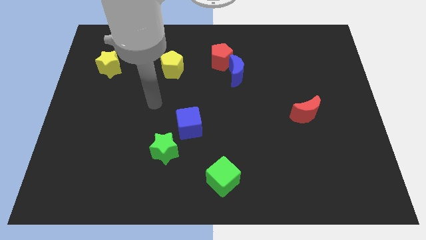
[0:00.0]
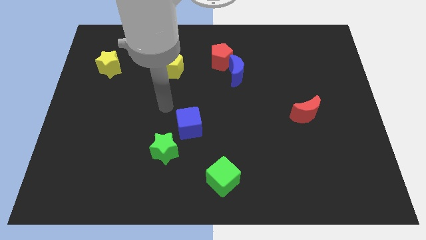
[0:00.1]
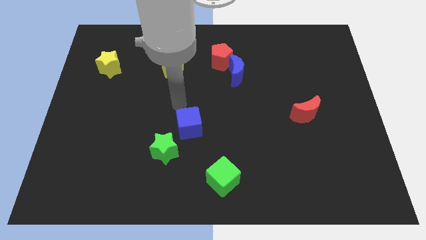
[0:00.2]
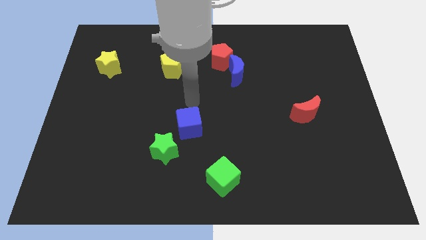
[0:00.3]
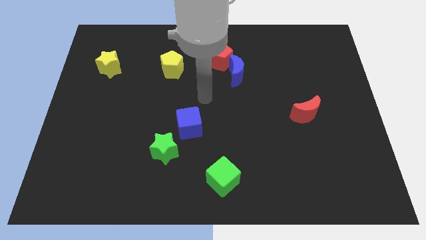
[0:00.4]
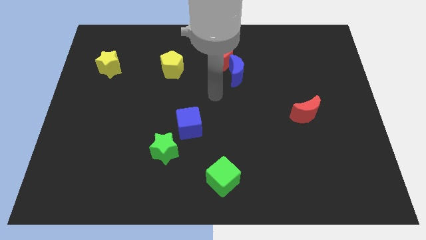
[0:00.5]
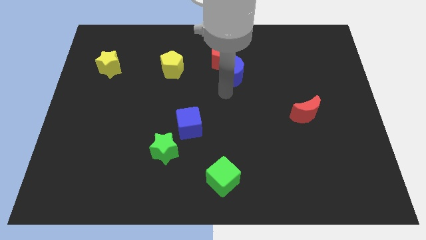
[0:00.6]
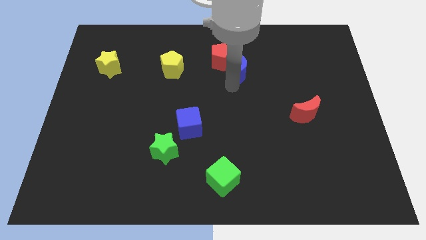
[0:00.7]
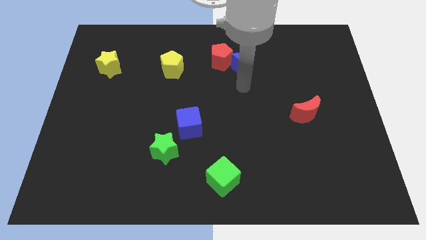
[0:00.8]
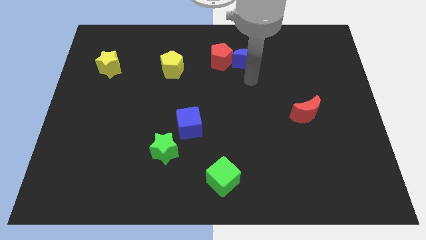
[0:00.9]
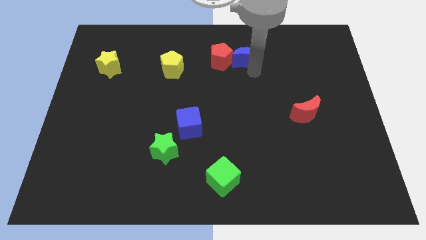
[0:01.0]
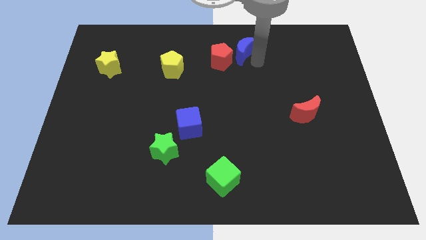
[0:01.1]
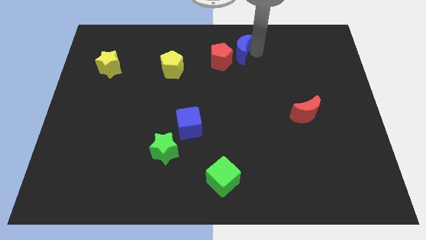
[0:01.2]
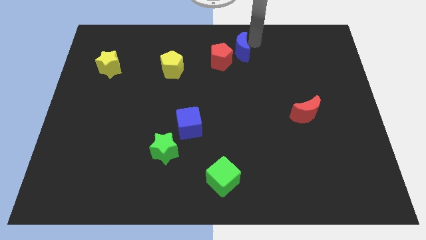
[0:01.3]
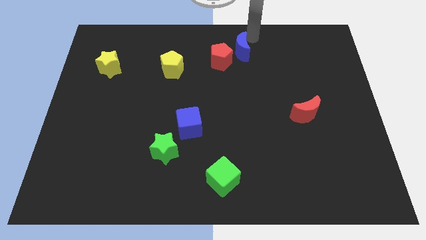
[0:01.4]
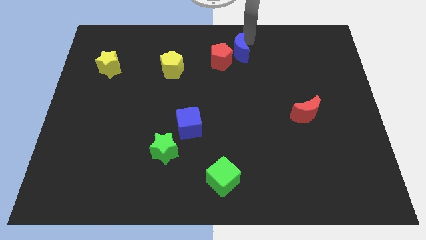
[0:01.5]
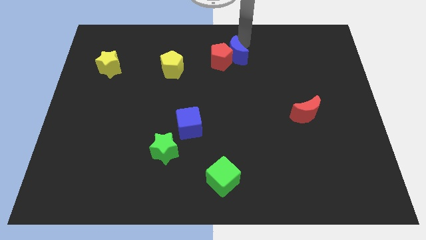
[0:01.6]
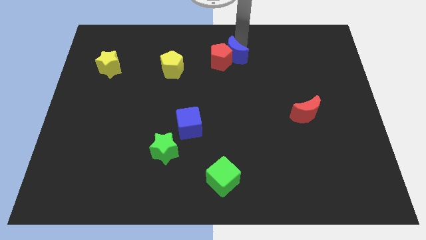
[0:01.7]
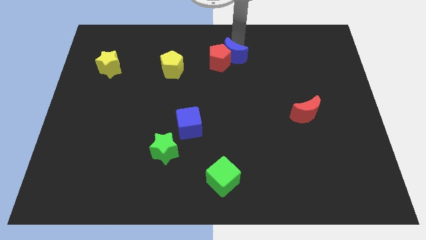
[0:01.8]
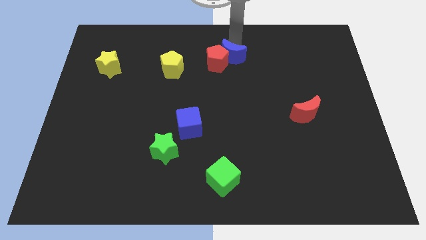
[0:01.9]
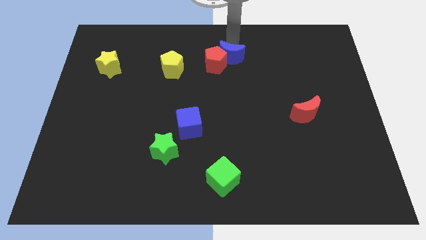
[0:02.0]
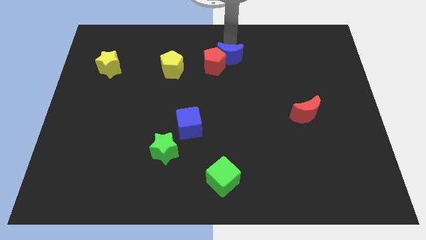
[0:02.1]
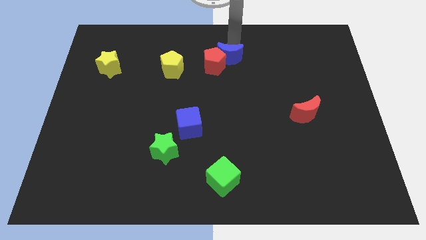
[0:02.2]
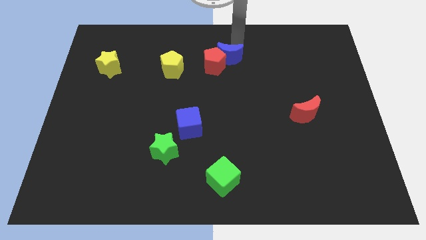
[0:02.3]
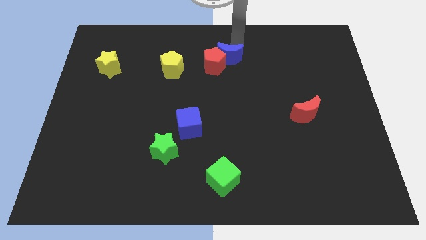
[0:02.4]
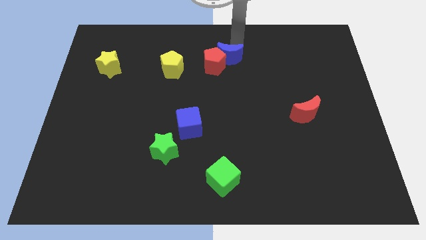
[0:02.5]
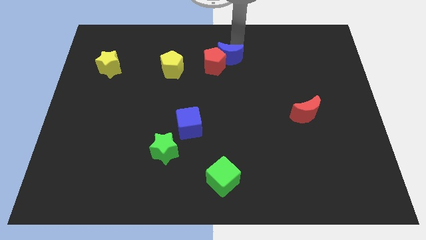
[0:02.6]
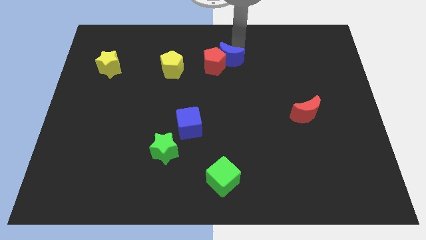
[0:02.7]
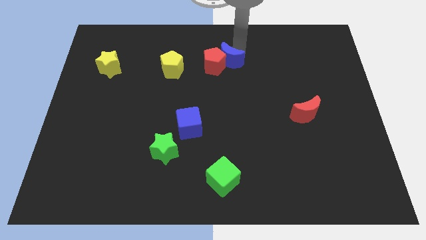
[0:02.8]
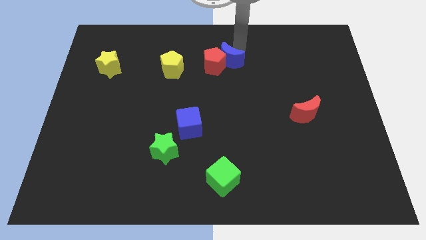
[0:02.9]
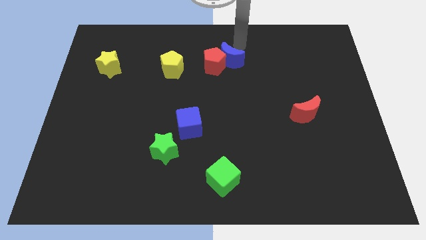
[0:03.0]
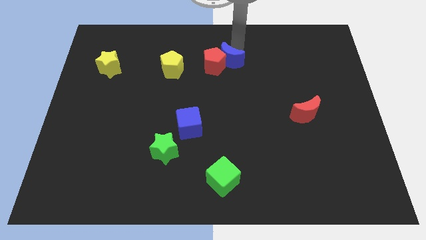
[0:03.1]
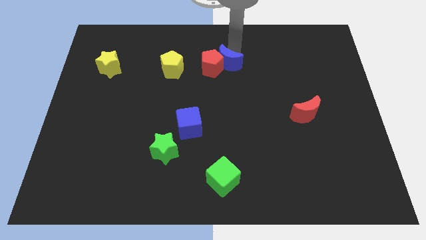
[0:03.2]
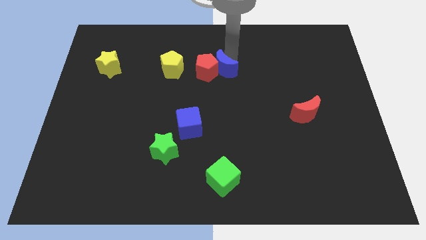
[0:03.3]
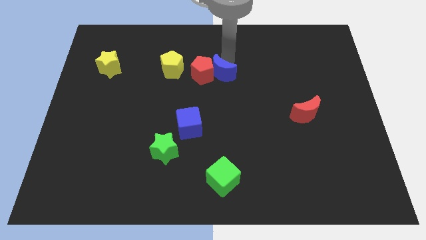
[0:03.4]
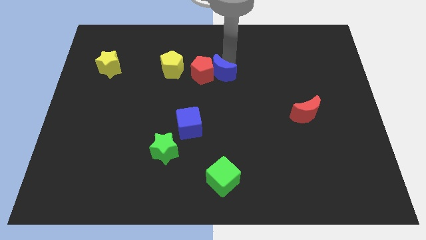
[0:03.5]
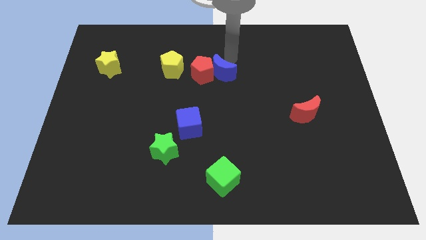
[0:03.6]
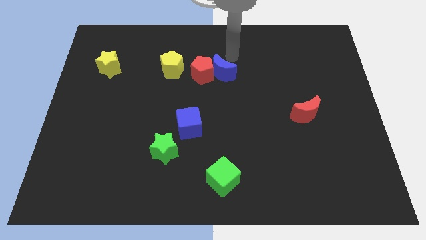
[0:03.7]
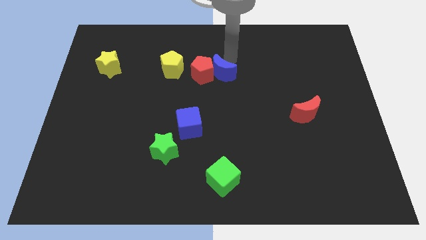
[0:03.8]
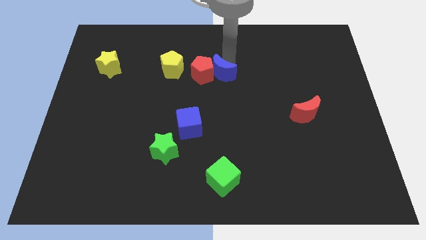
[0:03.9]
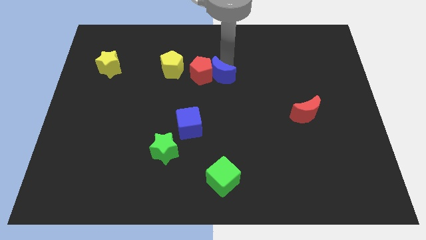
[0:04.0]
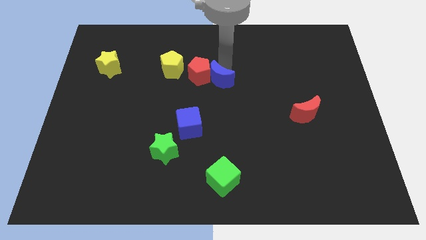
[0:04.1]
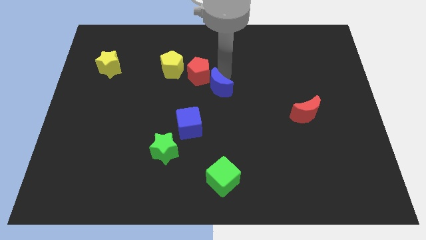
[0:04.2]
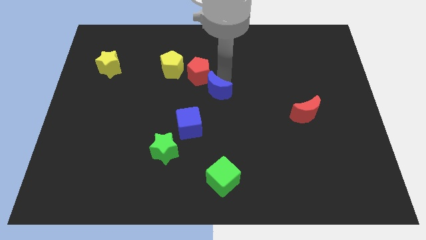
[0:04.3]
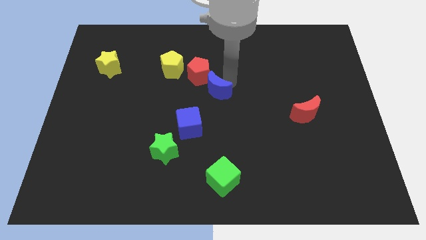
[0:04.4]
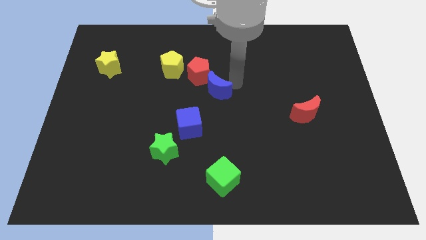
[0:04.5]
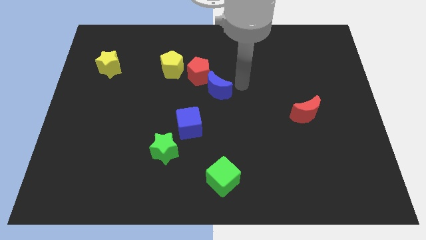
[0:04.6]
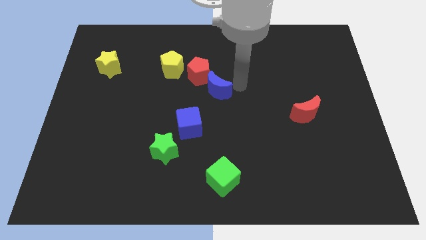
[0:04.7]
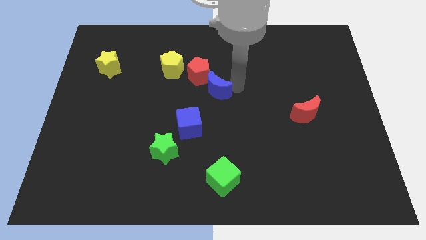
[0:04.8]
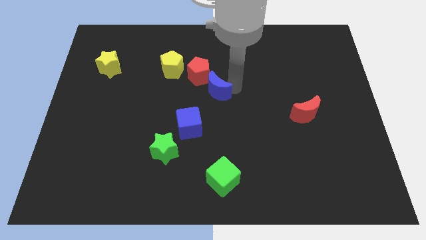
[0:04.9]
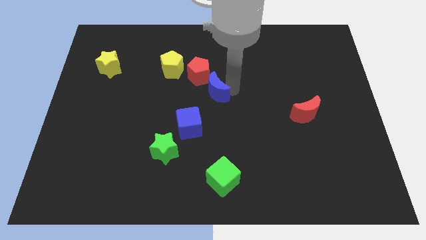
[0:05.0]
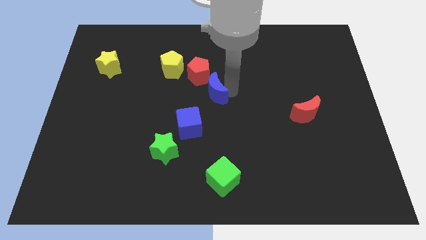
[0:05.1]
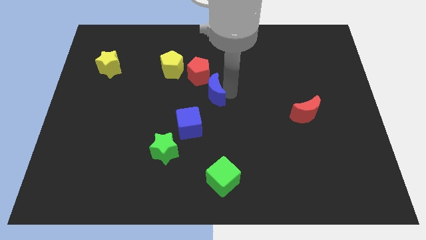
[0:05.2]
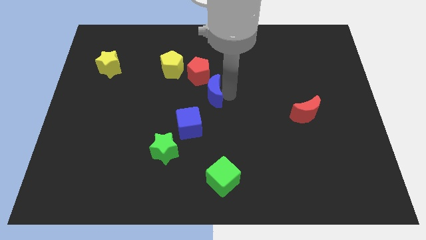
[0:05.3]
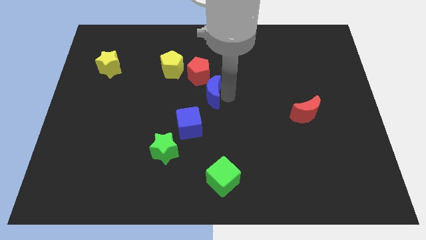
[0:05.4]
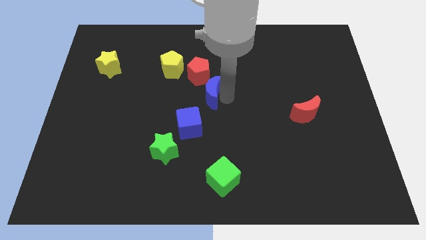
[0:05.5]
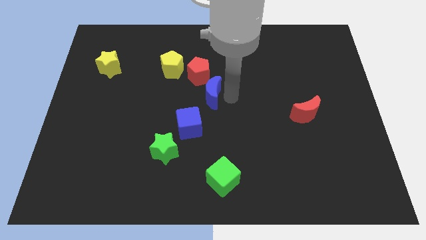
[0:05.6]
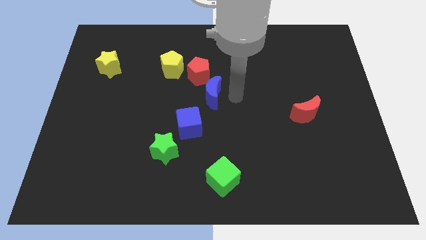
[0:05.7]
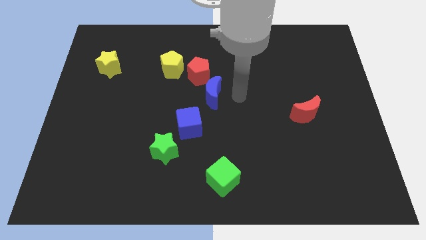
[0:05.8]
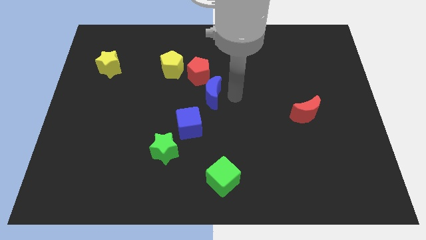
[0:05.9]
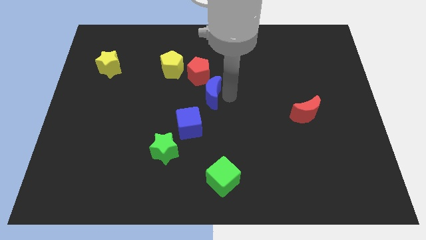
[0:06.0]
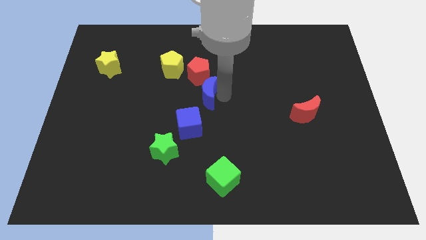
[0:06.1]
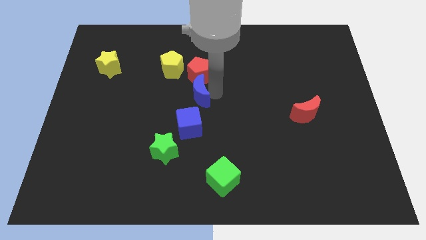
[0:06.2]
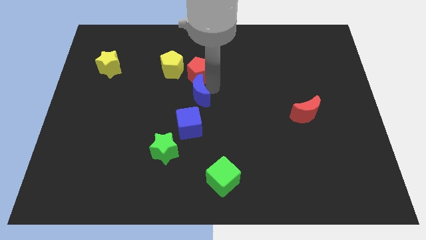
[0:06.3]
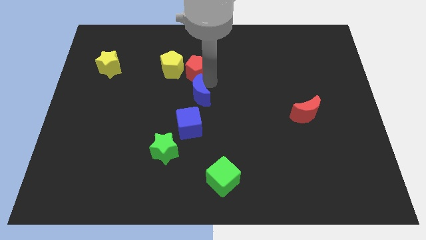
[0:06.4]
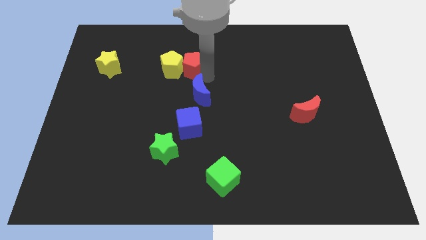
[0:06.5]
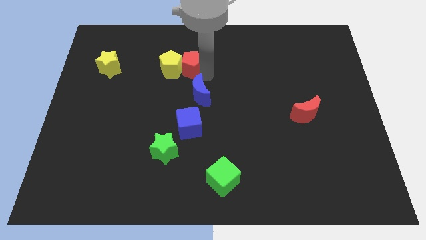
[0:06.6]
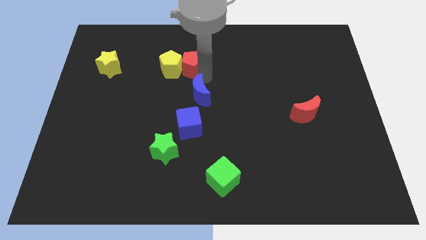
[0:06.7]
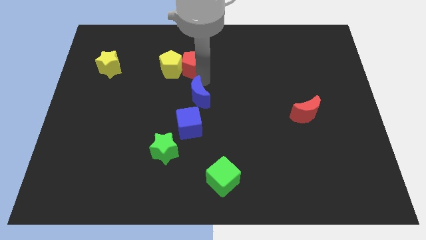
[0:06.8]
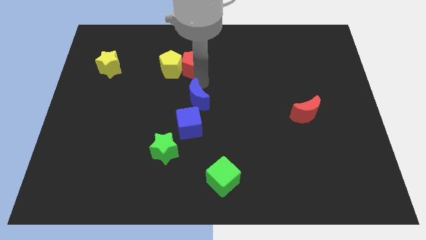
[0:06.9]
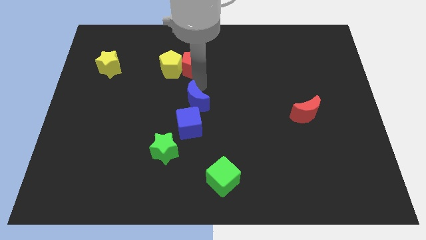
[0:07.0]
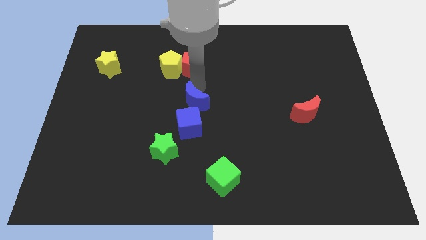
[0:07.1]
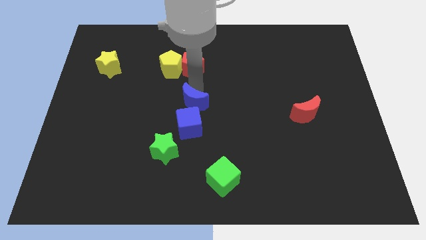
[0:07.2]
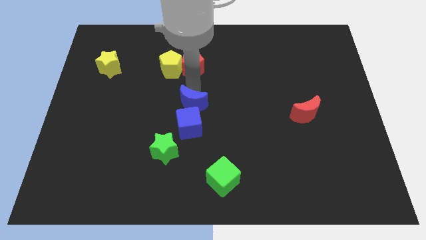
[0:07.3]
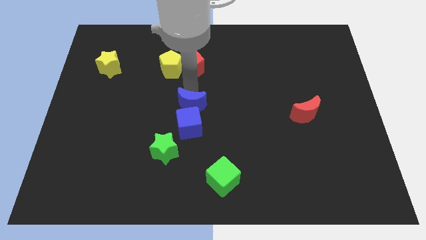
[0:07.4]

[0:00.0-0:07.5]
put the blue moon towards the blue cube

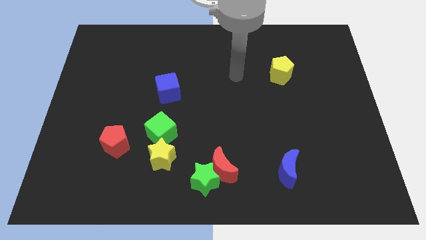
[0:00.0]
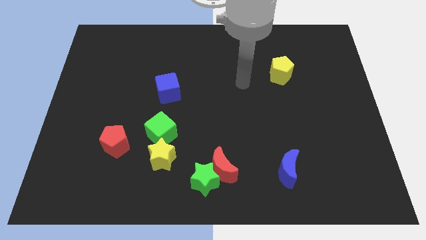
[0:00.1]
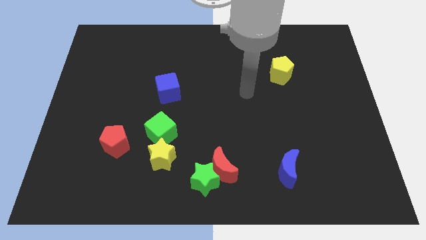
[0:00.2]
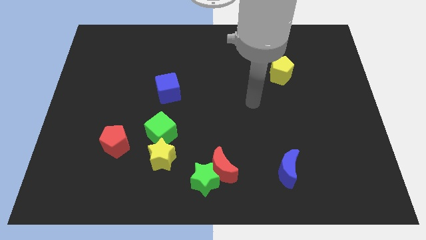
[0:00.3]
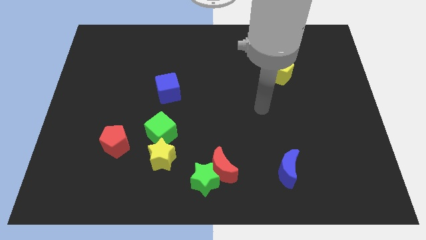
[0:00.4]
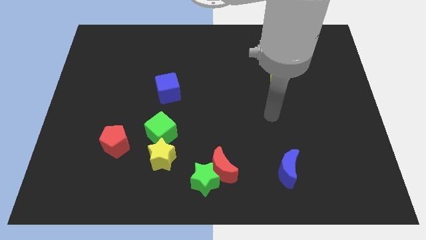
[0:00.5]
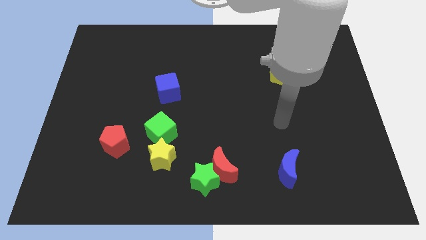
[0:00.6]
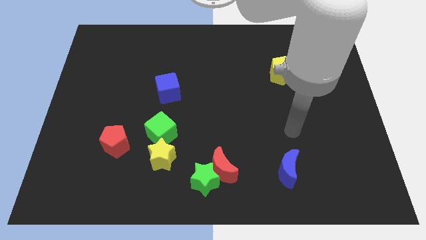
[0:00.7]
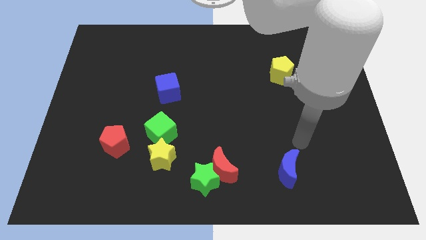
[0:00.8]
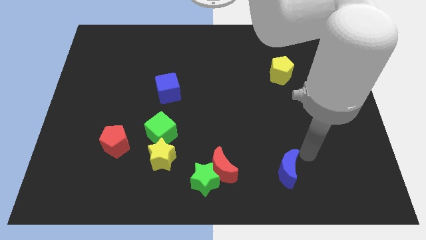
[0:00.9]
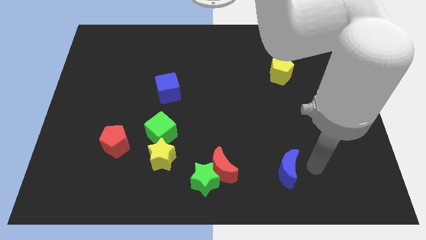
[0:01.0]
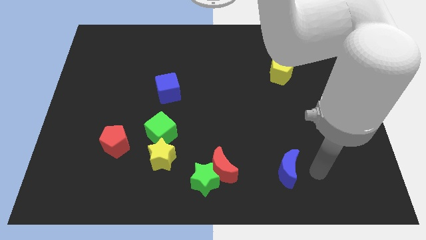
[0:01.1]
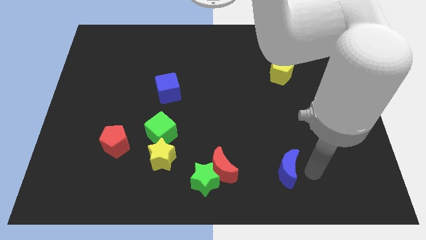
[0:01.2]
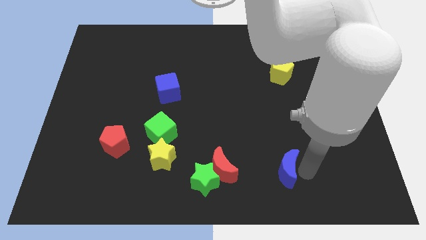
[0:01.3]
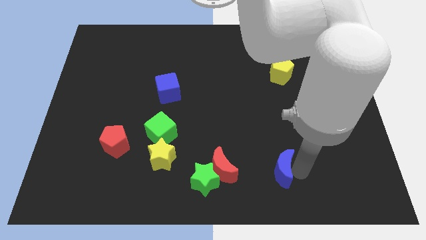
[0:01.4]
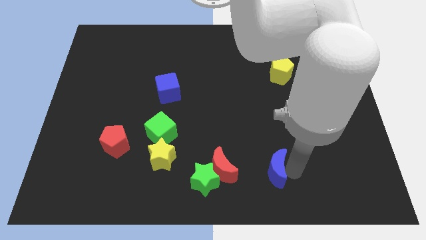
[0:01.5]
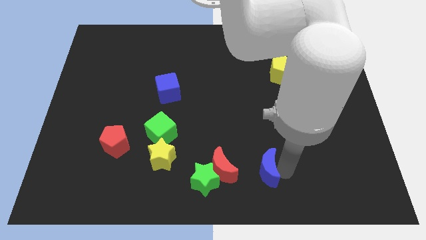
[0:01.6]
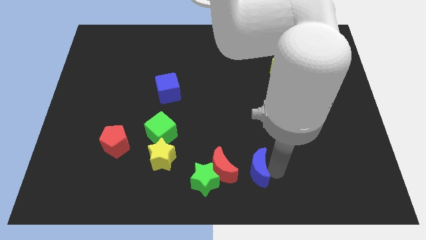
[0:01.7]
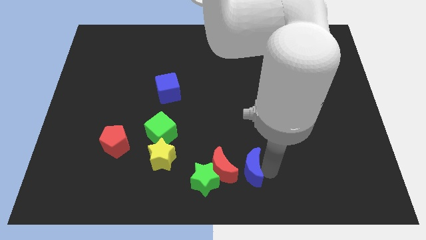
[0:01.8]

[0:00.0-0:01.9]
move the blue moon close to the red moon
